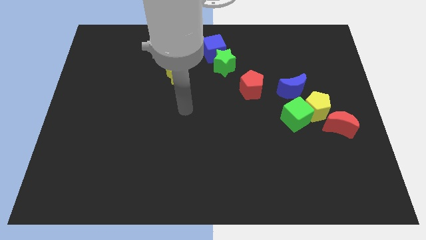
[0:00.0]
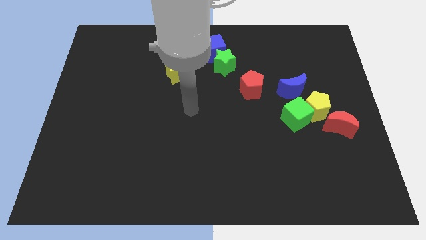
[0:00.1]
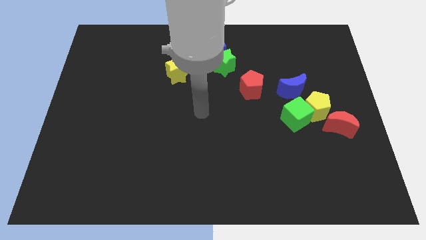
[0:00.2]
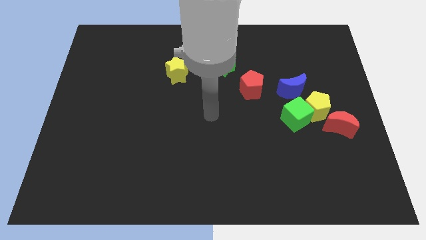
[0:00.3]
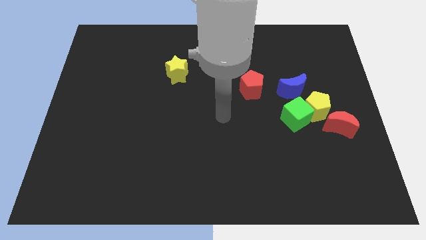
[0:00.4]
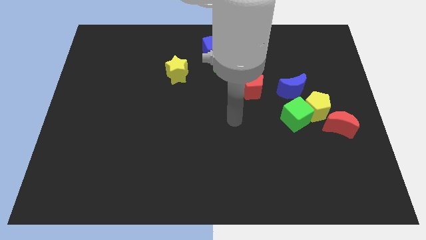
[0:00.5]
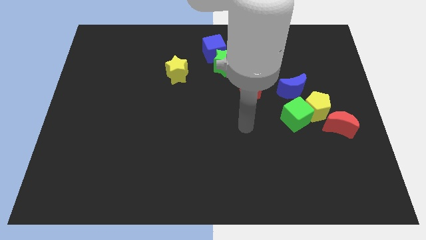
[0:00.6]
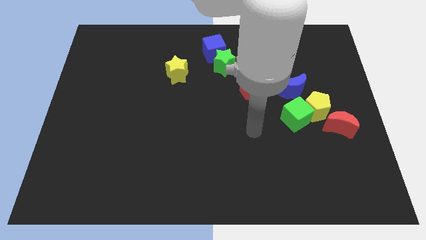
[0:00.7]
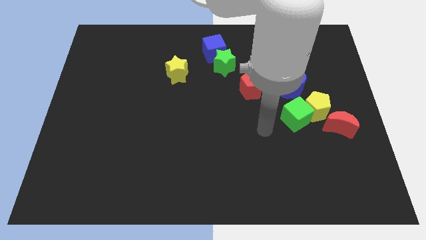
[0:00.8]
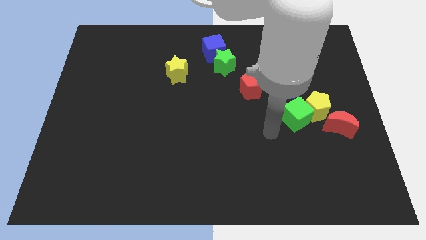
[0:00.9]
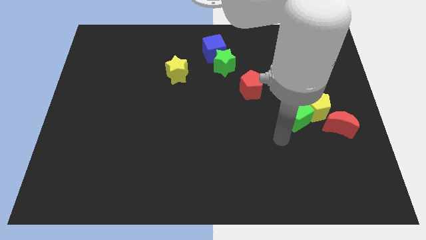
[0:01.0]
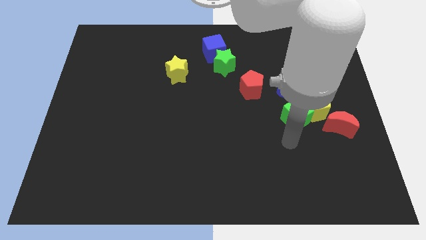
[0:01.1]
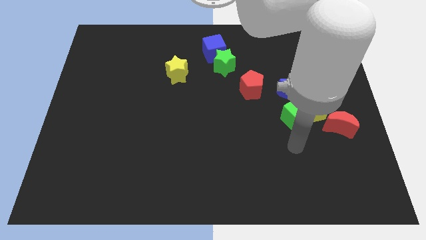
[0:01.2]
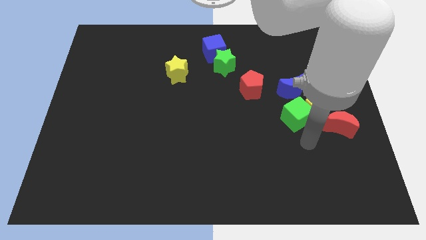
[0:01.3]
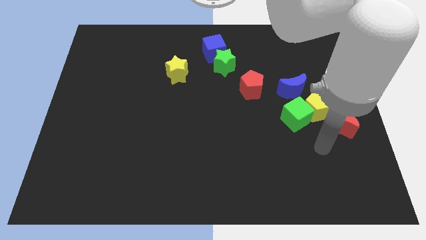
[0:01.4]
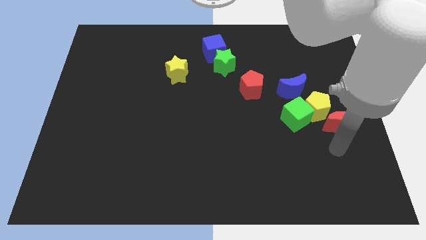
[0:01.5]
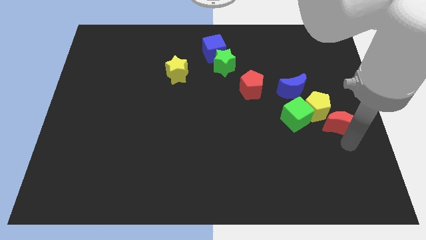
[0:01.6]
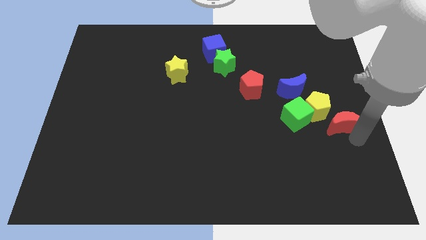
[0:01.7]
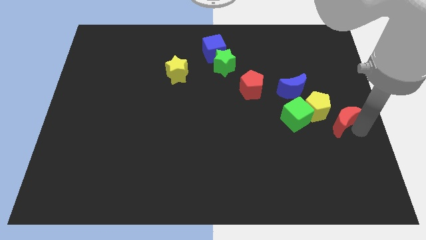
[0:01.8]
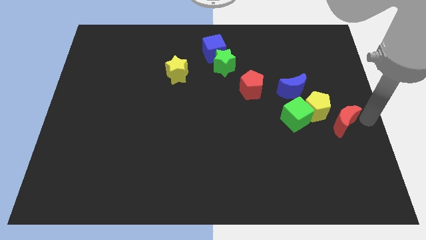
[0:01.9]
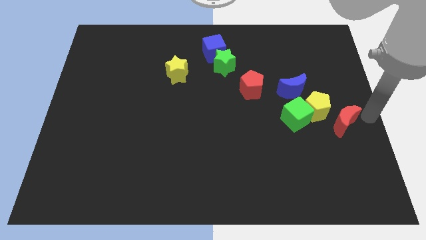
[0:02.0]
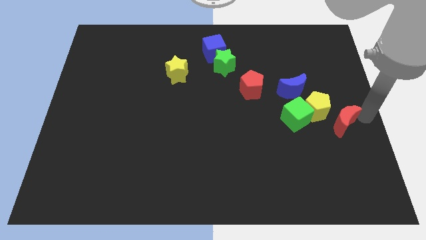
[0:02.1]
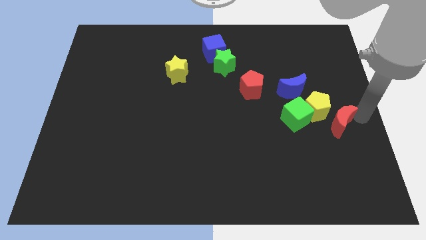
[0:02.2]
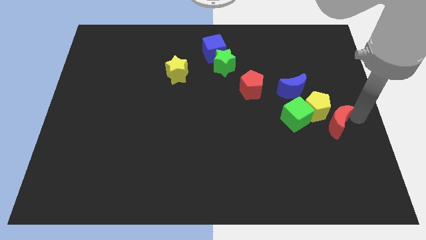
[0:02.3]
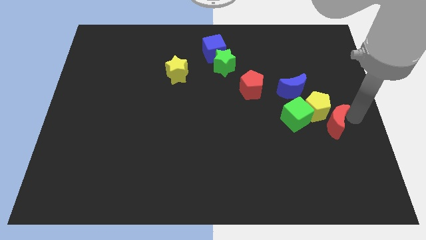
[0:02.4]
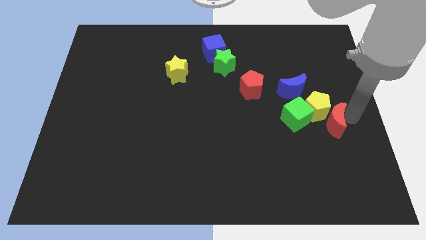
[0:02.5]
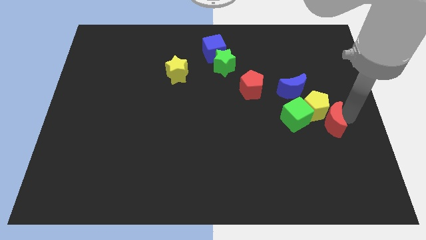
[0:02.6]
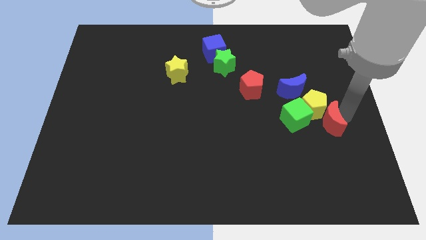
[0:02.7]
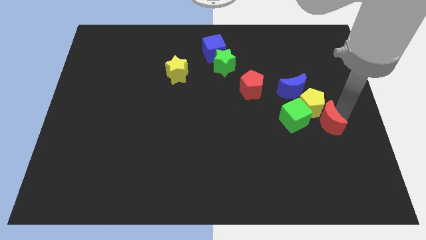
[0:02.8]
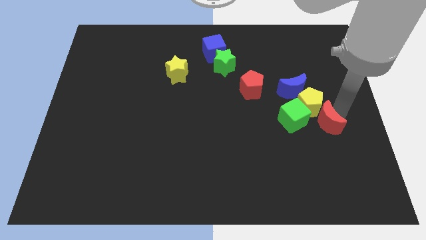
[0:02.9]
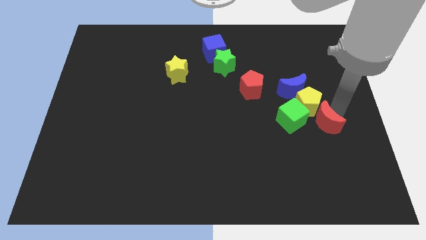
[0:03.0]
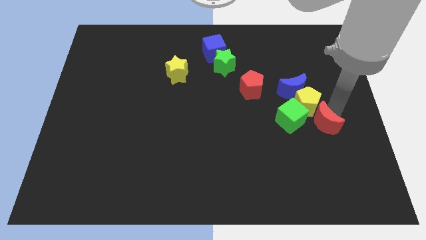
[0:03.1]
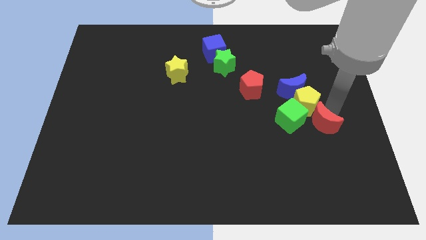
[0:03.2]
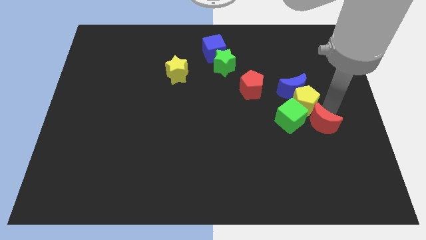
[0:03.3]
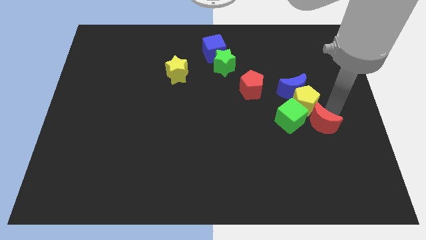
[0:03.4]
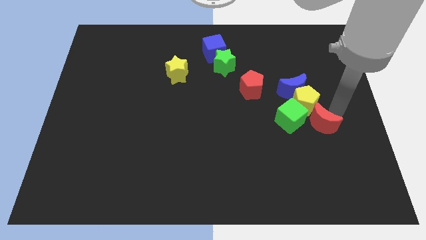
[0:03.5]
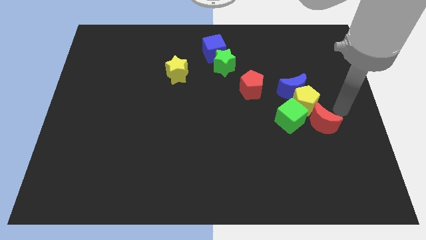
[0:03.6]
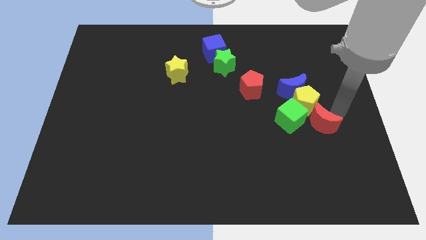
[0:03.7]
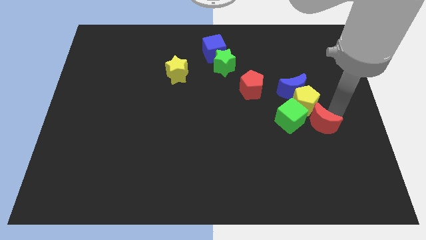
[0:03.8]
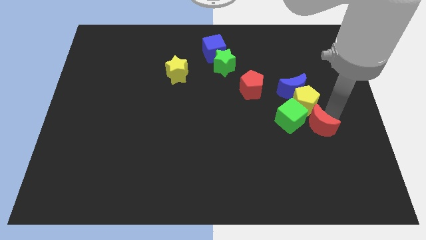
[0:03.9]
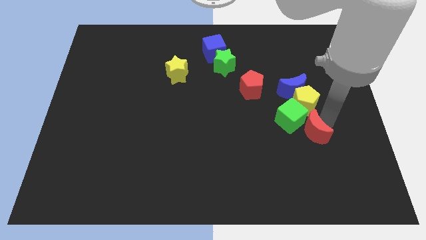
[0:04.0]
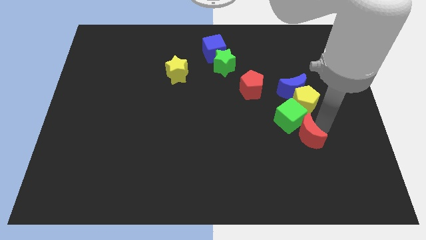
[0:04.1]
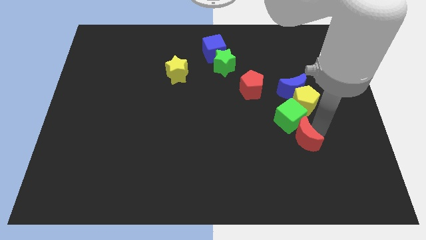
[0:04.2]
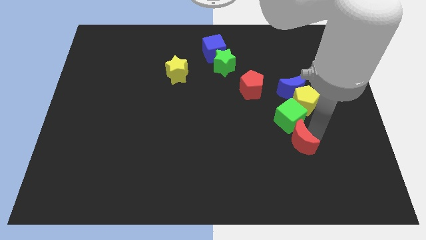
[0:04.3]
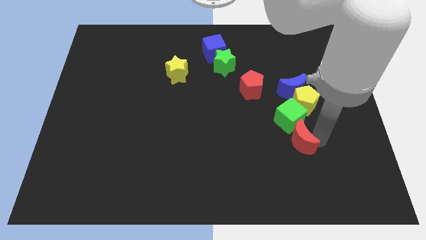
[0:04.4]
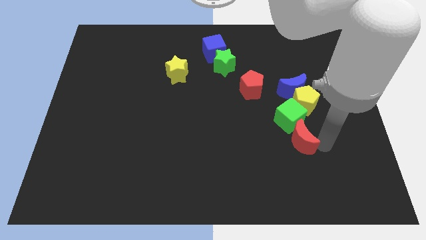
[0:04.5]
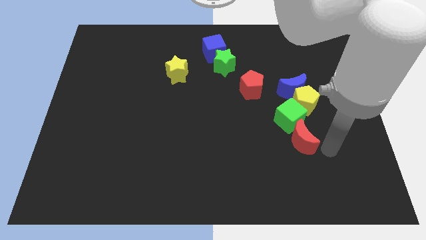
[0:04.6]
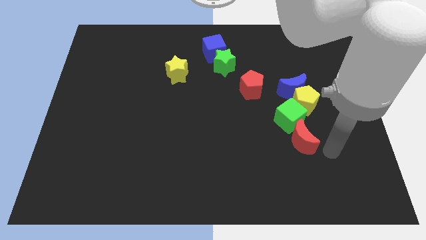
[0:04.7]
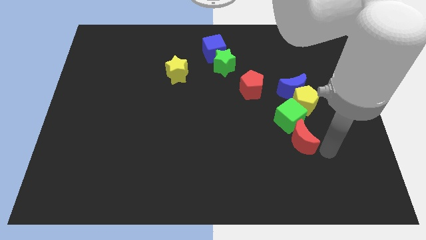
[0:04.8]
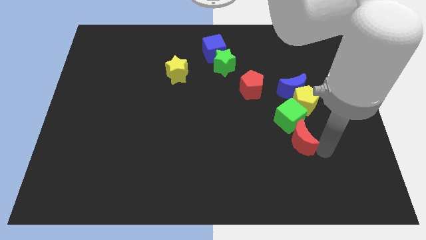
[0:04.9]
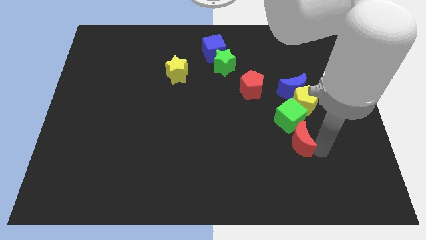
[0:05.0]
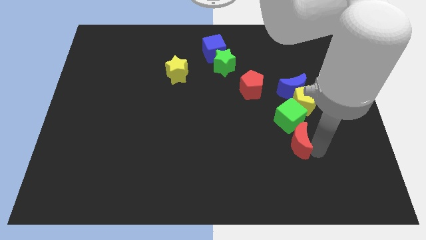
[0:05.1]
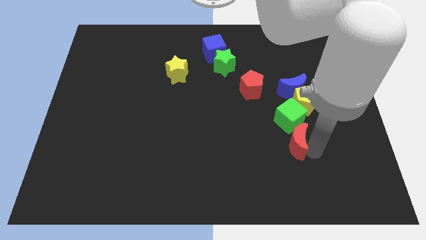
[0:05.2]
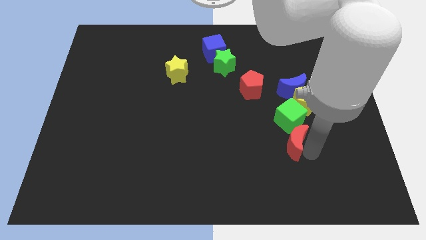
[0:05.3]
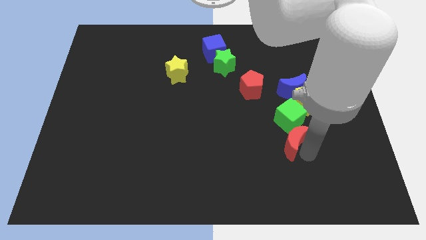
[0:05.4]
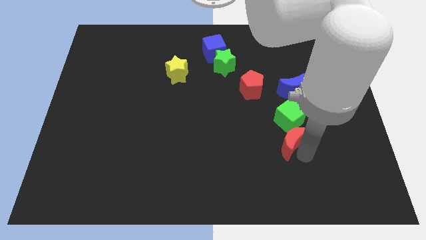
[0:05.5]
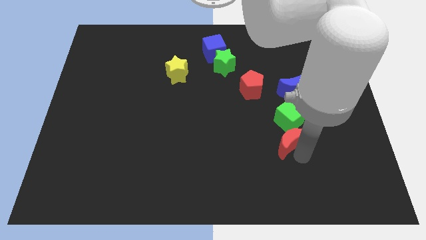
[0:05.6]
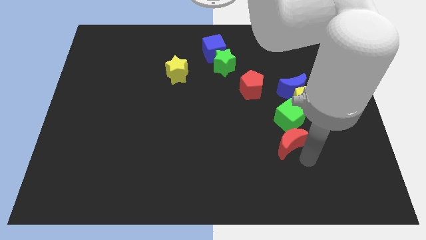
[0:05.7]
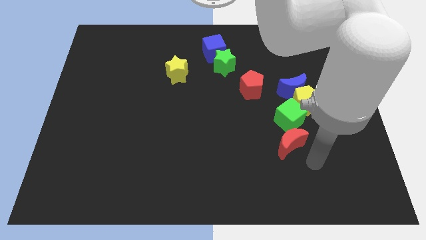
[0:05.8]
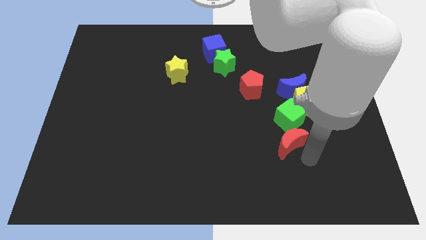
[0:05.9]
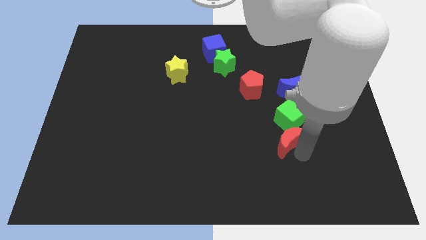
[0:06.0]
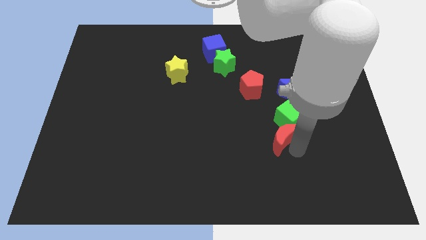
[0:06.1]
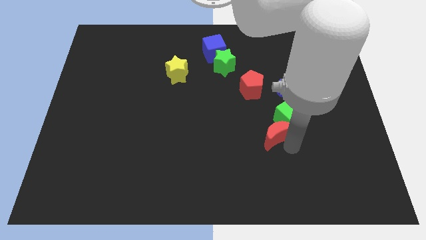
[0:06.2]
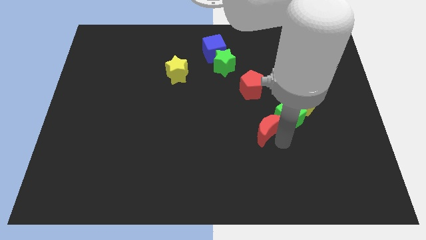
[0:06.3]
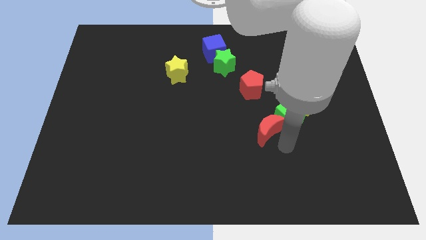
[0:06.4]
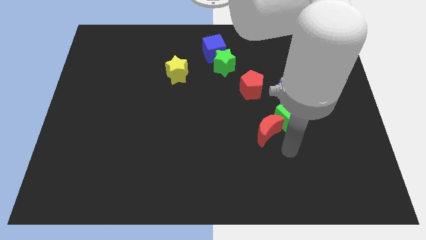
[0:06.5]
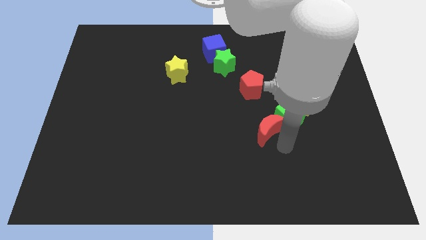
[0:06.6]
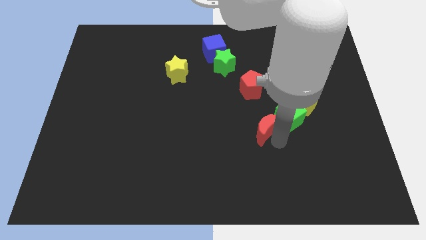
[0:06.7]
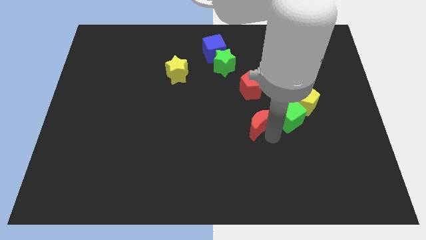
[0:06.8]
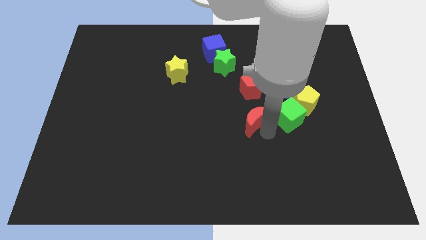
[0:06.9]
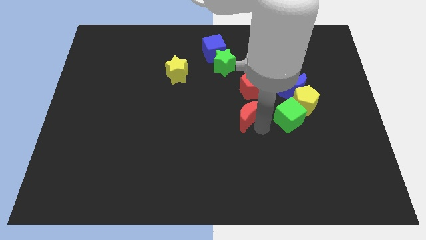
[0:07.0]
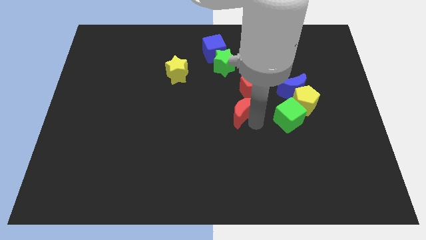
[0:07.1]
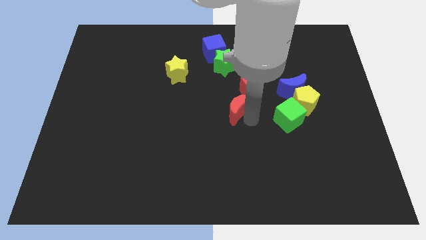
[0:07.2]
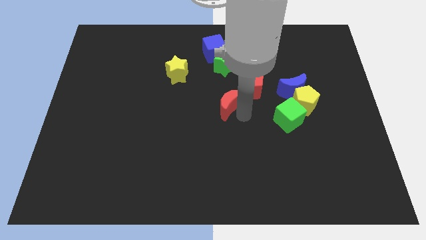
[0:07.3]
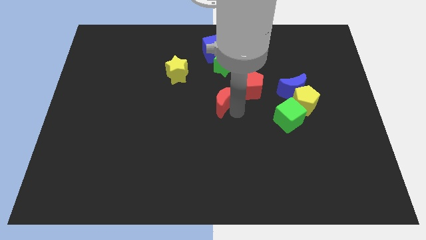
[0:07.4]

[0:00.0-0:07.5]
move the red moon to the left side of the red pentagon
